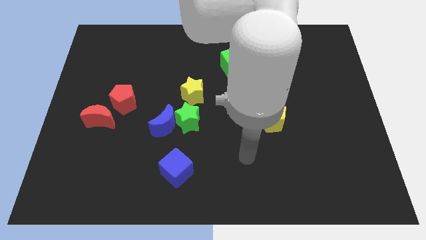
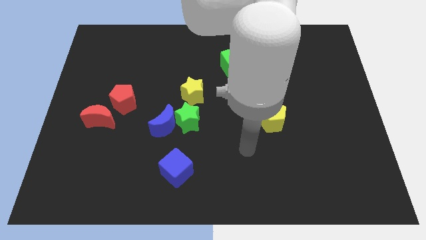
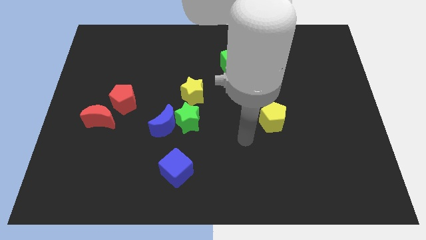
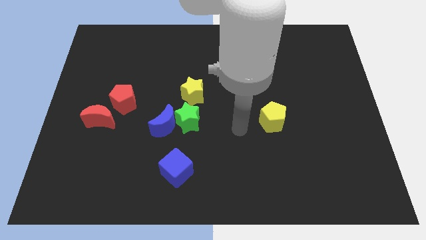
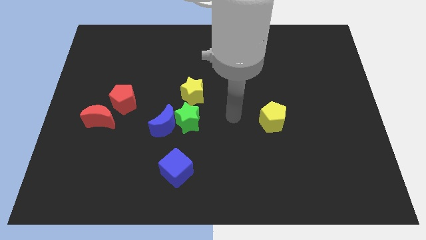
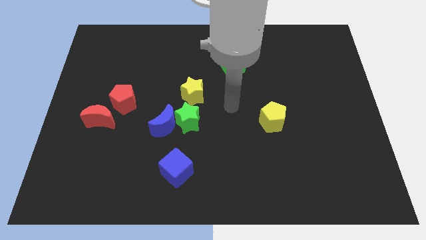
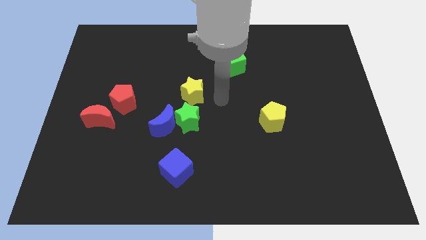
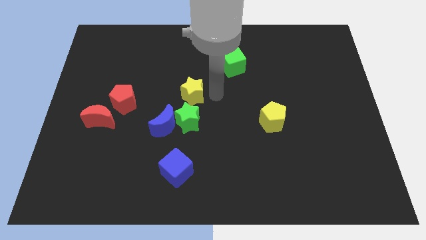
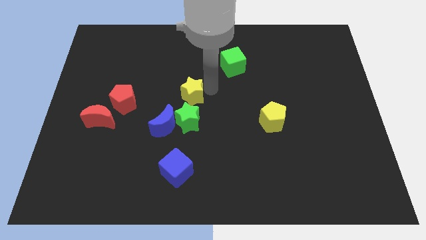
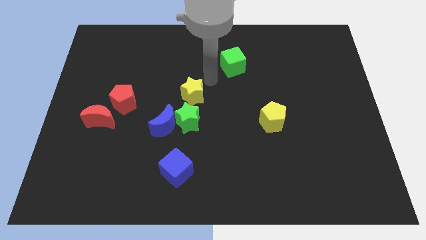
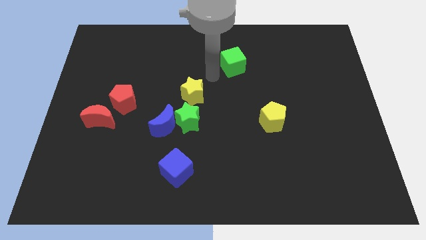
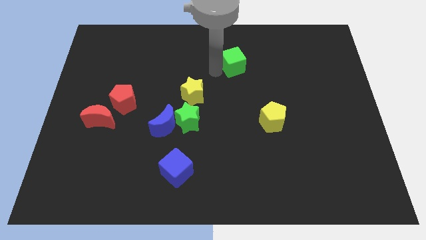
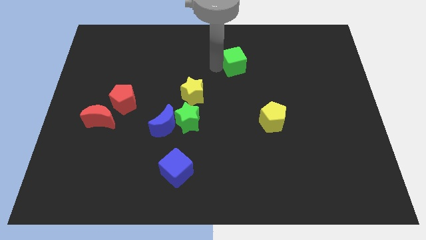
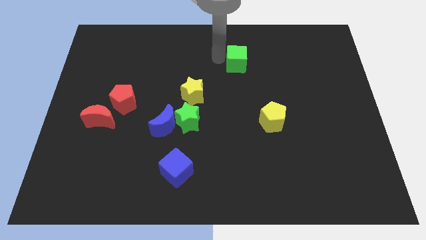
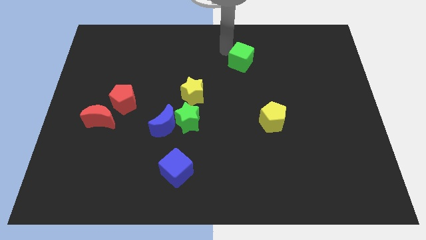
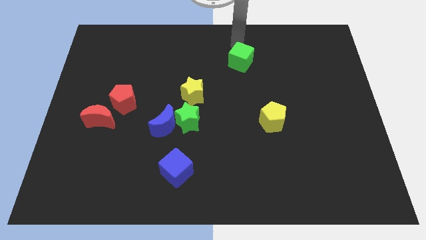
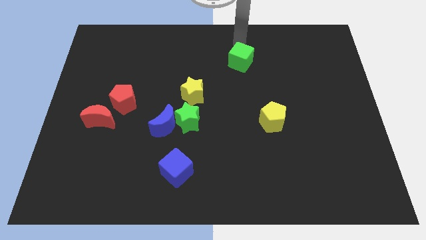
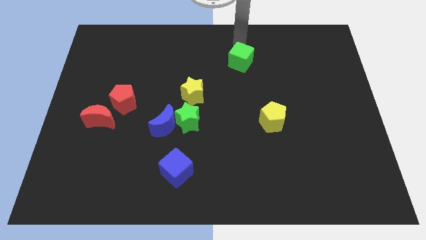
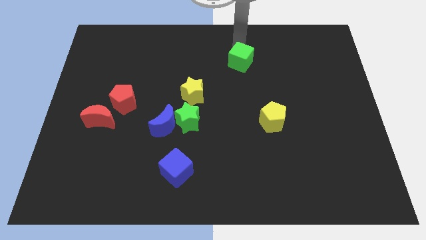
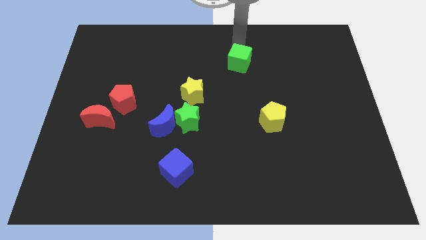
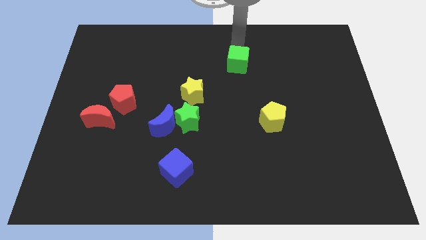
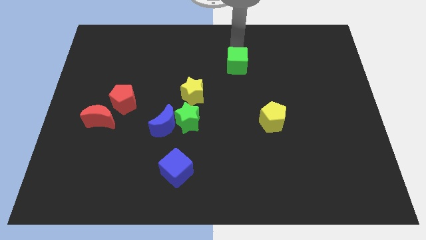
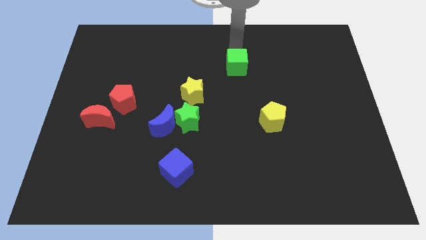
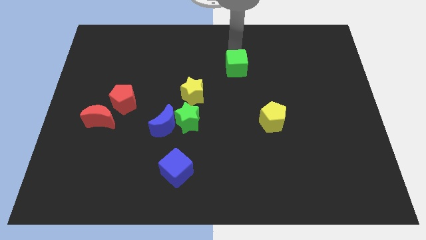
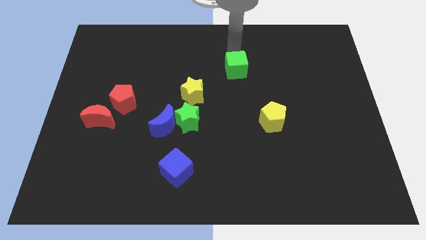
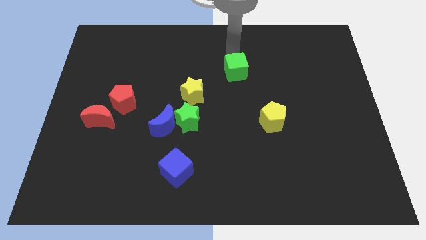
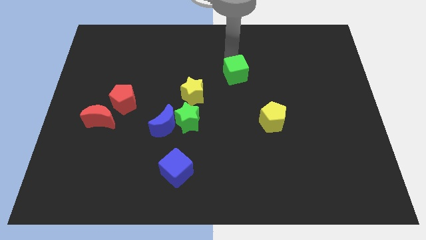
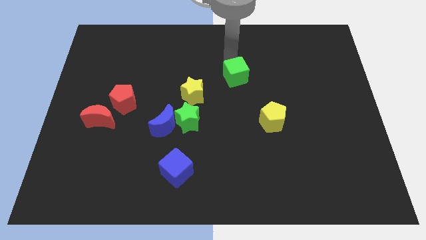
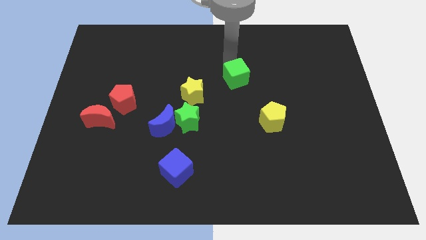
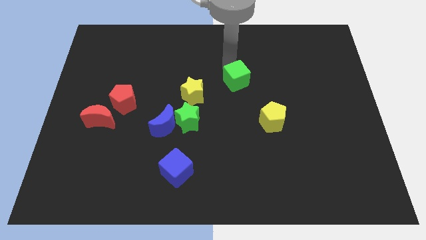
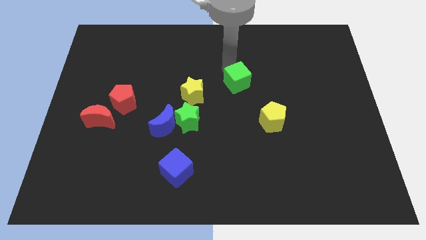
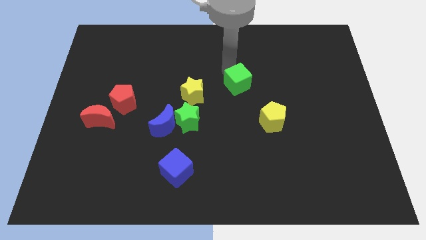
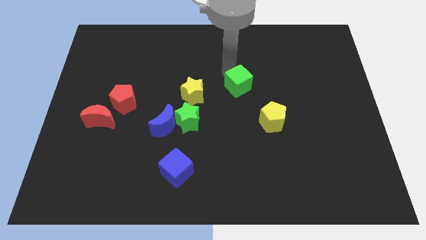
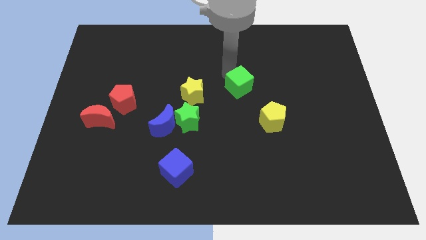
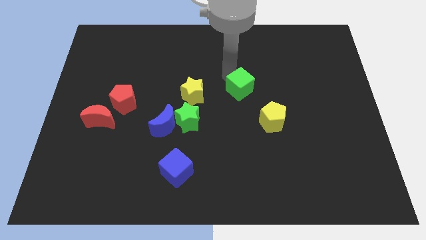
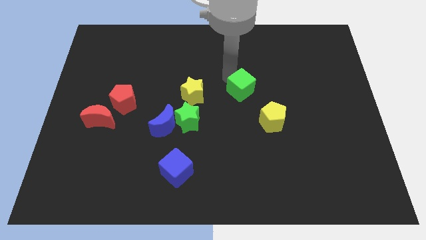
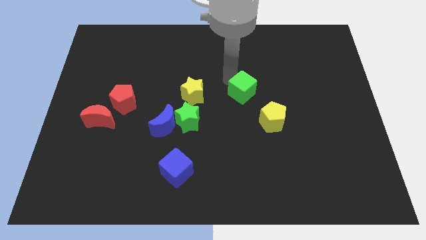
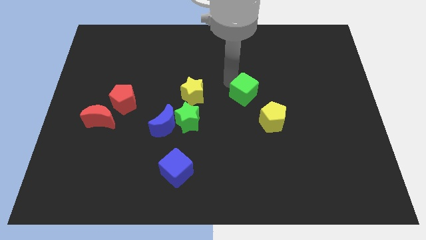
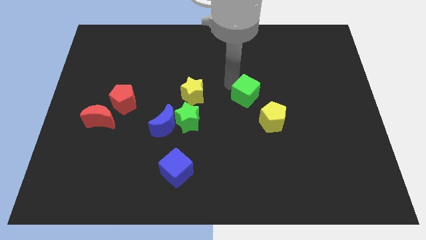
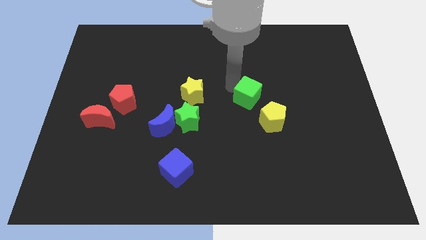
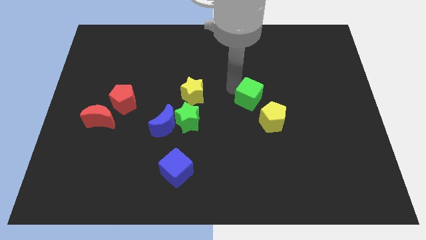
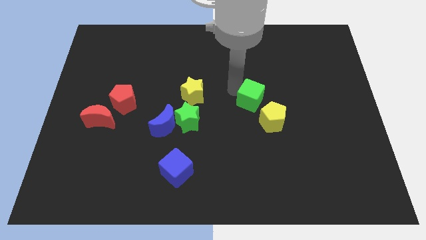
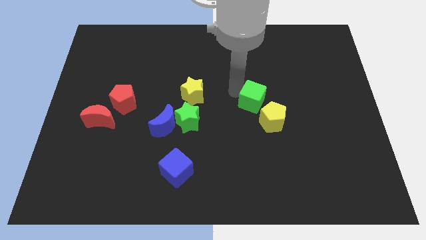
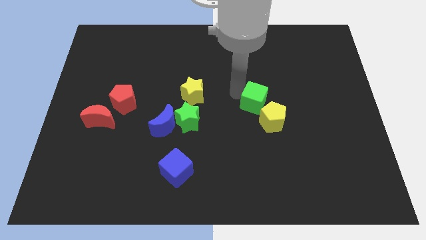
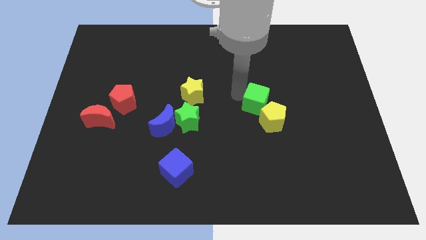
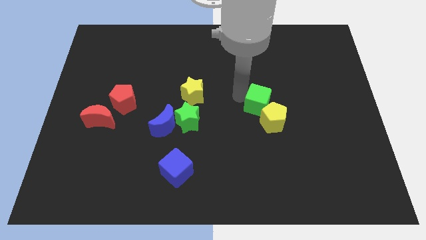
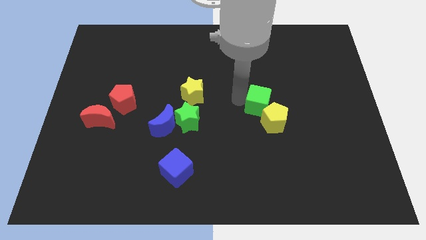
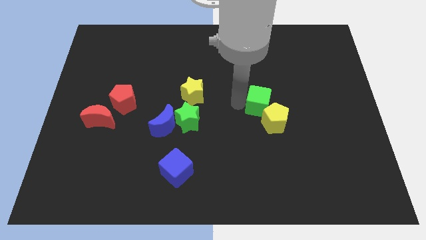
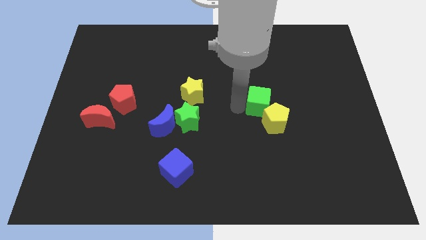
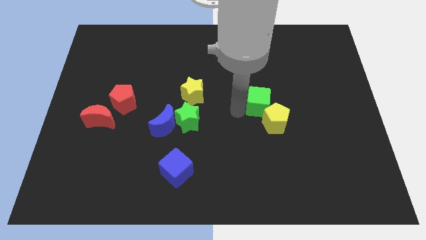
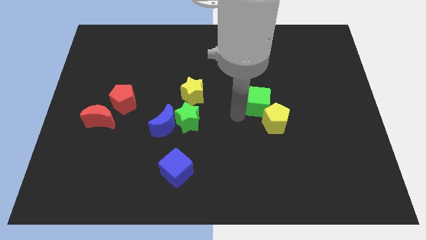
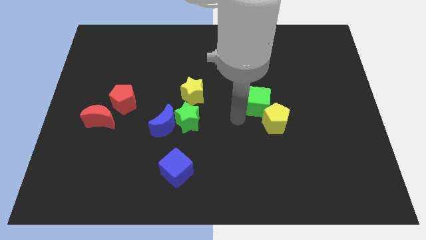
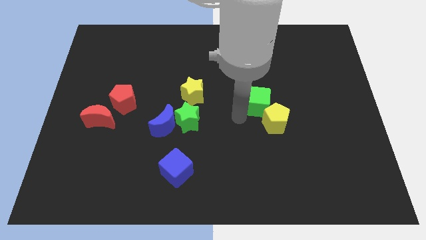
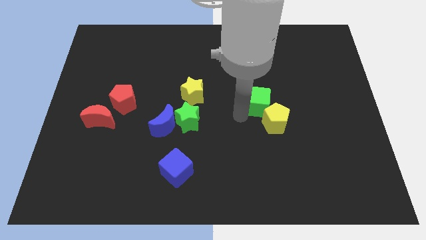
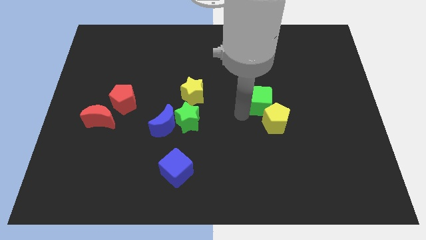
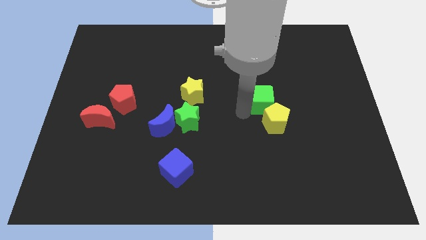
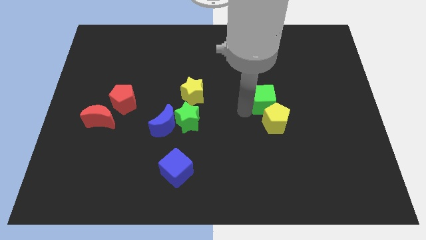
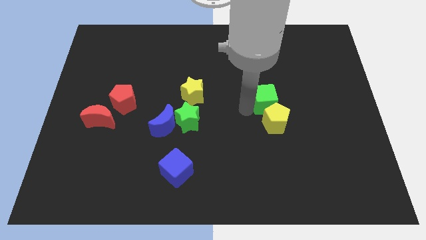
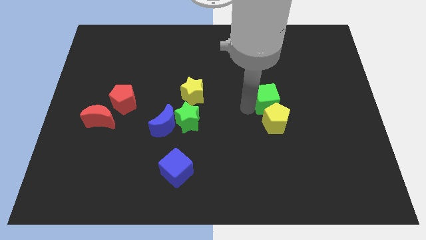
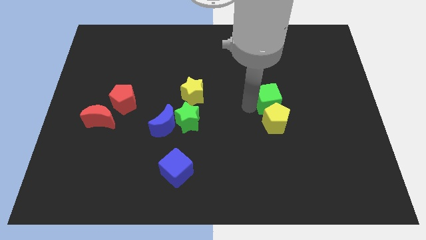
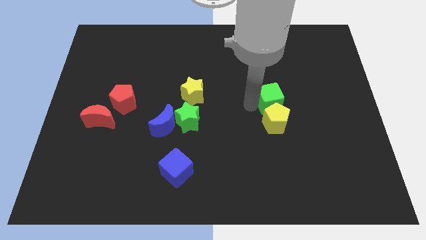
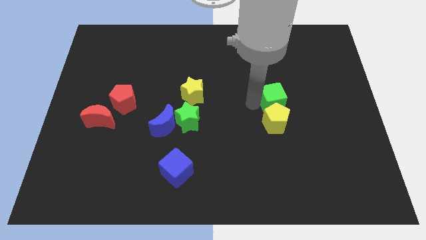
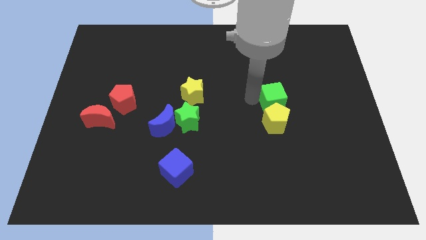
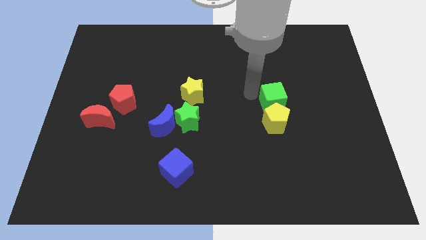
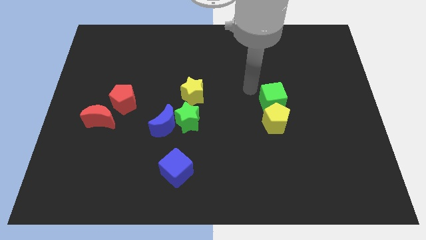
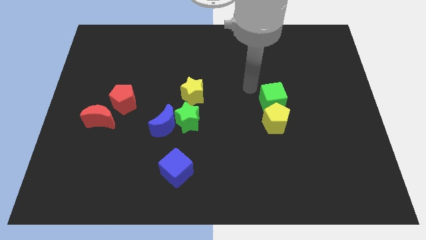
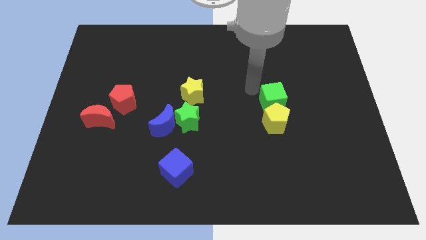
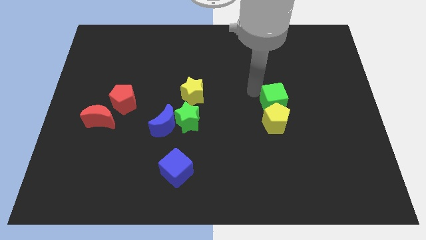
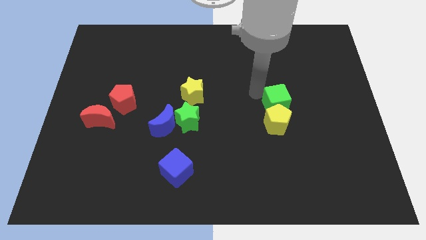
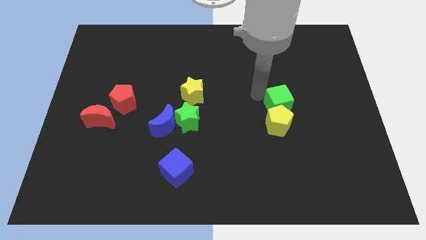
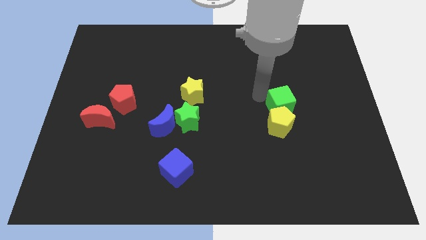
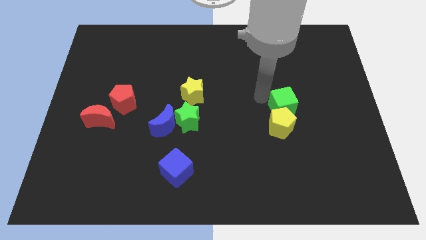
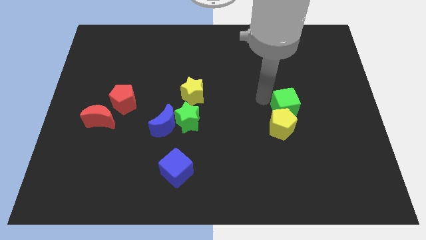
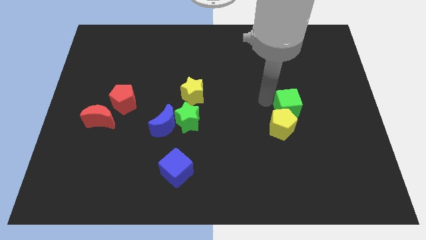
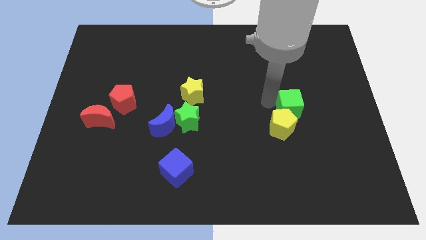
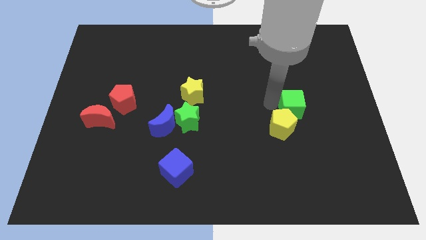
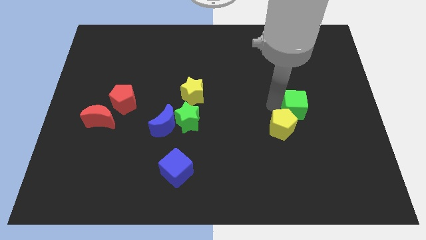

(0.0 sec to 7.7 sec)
push the green cube down and then right

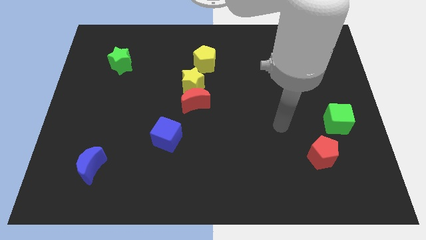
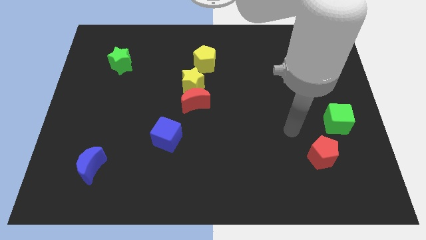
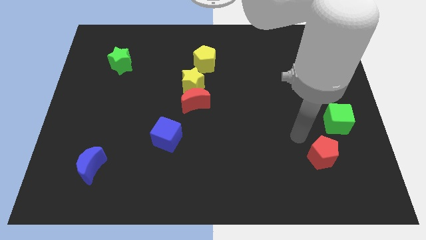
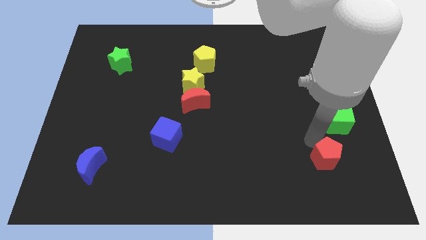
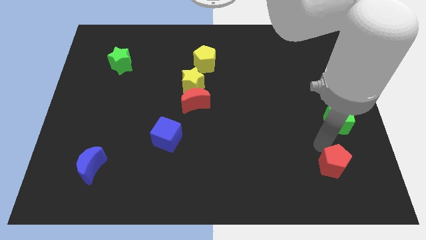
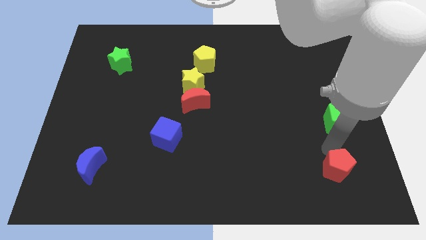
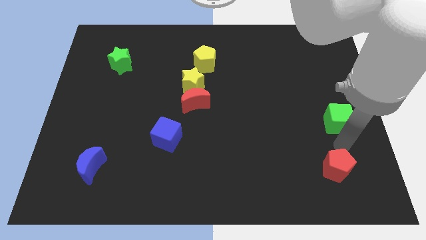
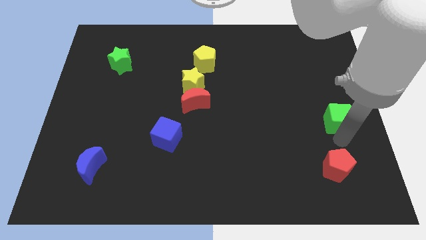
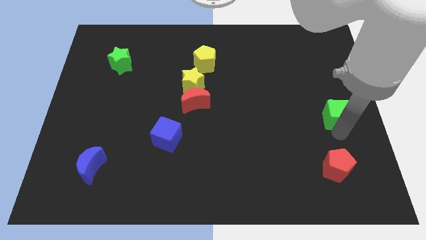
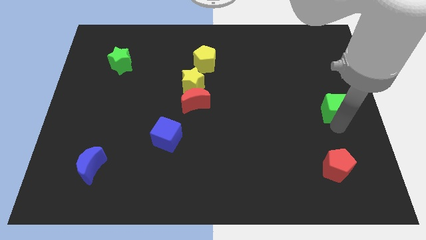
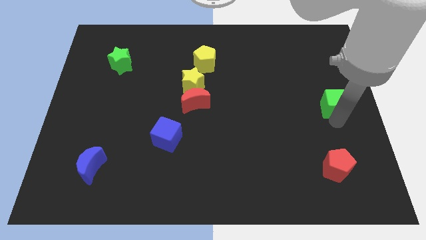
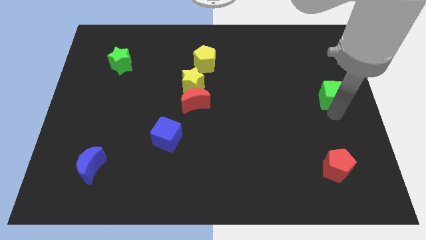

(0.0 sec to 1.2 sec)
slide the green cube upwards a little
